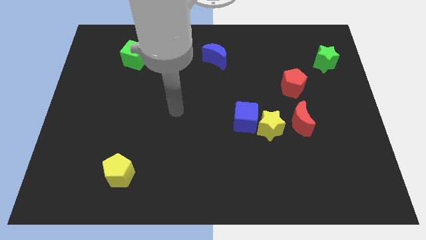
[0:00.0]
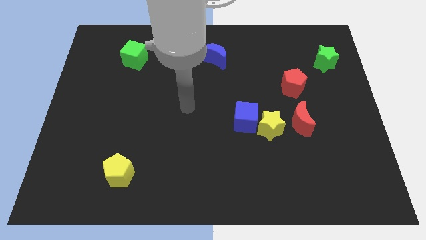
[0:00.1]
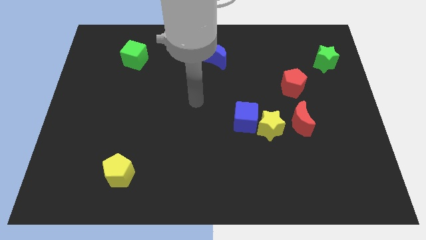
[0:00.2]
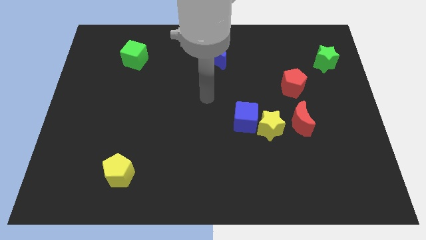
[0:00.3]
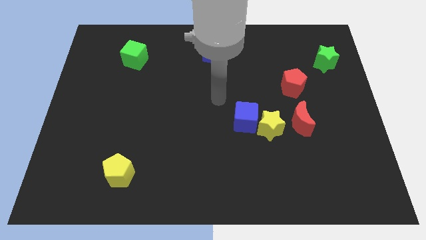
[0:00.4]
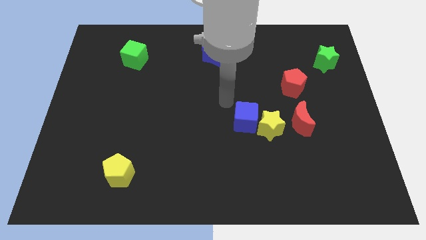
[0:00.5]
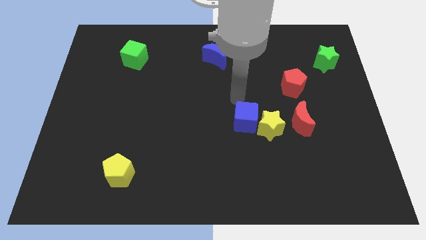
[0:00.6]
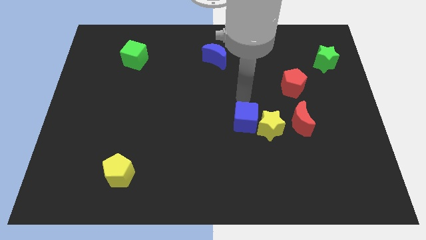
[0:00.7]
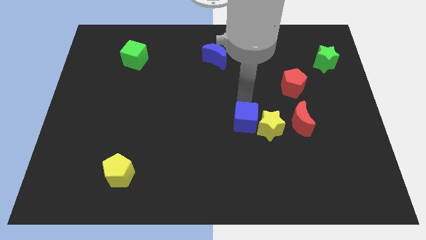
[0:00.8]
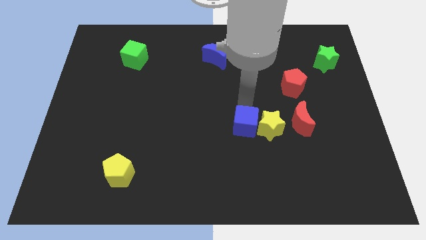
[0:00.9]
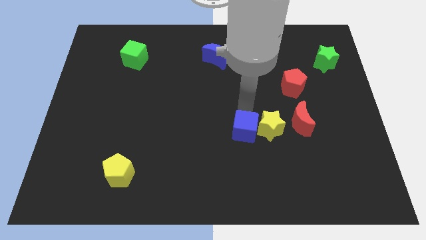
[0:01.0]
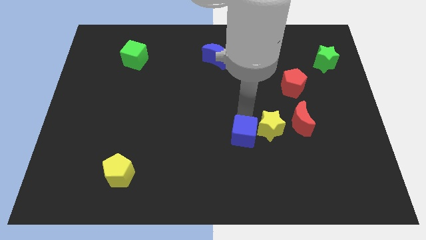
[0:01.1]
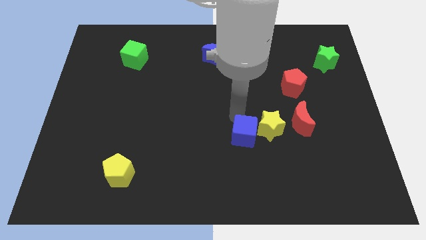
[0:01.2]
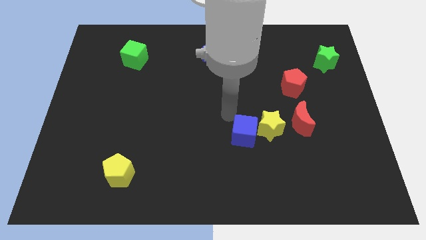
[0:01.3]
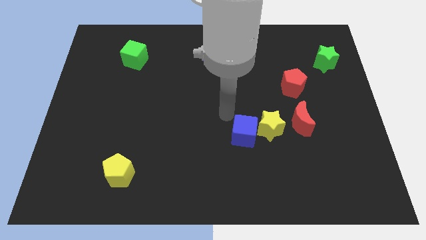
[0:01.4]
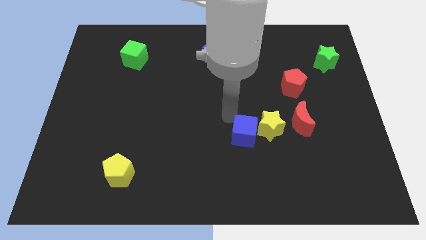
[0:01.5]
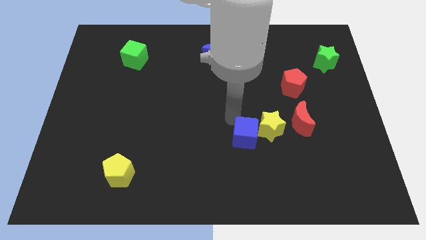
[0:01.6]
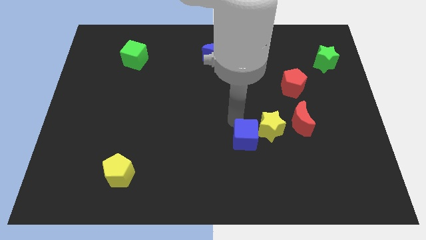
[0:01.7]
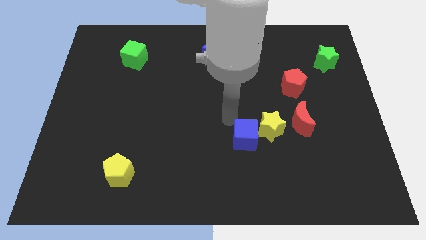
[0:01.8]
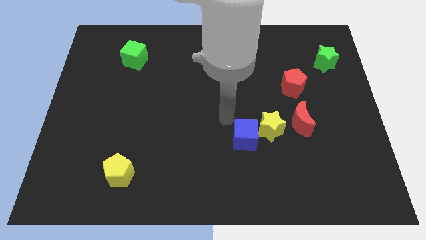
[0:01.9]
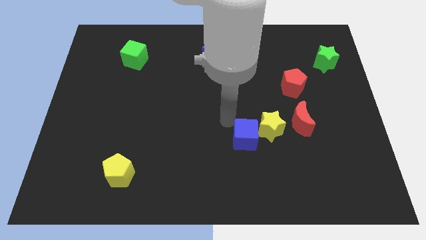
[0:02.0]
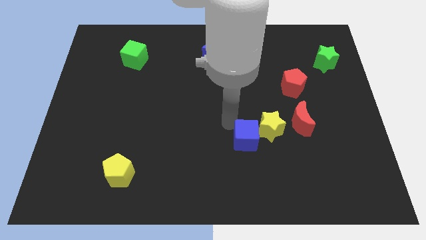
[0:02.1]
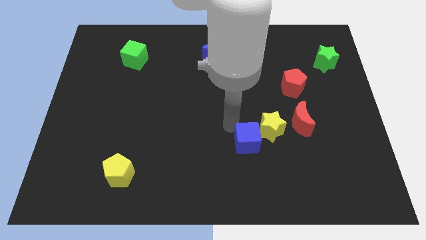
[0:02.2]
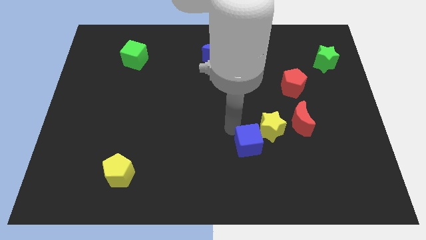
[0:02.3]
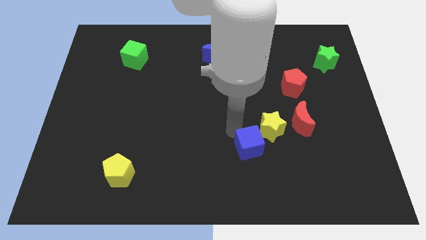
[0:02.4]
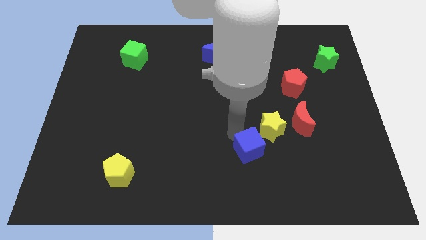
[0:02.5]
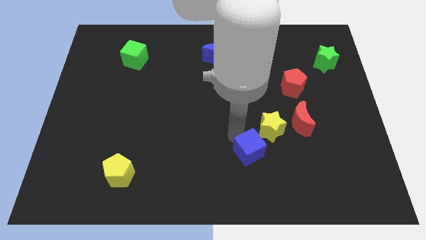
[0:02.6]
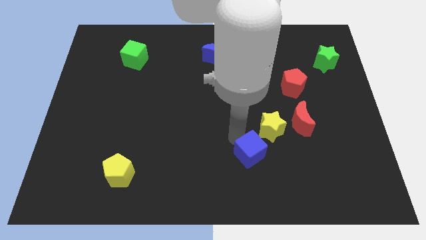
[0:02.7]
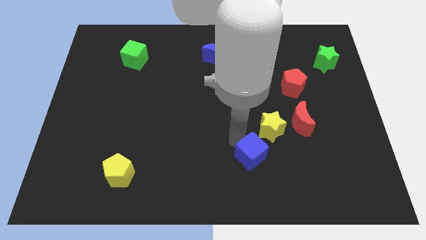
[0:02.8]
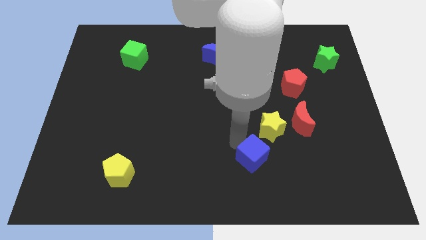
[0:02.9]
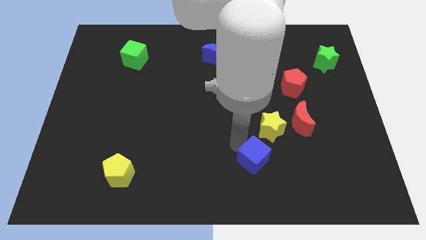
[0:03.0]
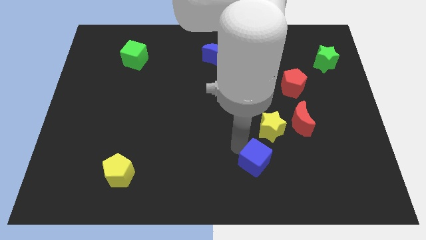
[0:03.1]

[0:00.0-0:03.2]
move the blue cube downwards and to the right diagonally slightly

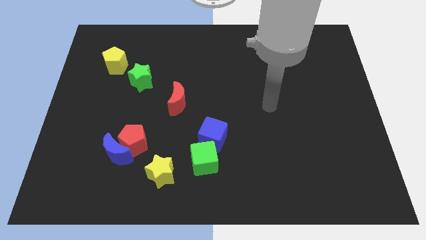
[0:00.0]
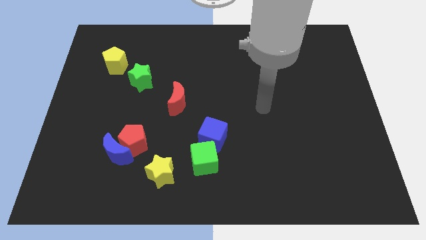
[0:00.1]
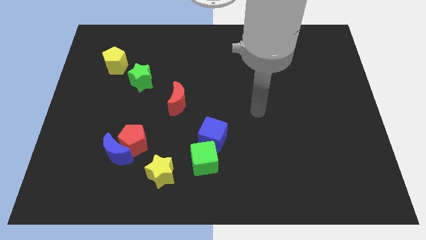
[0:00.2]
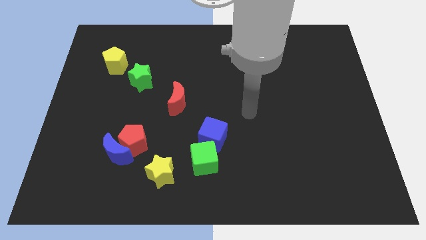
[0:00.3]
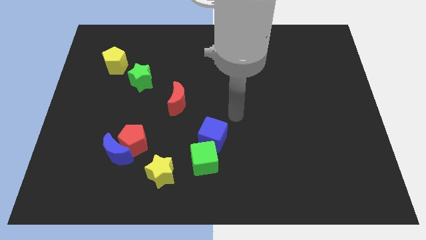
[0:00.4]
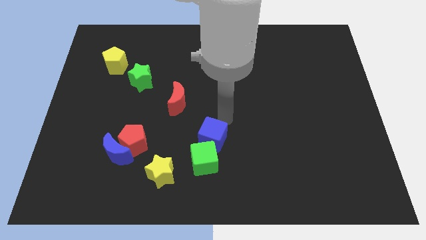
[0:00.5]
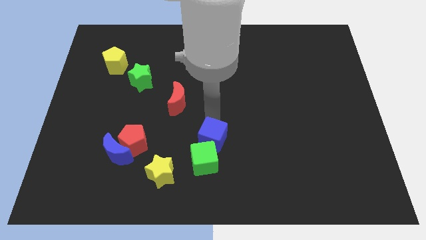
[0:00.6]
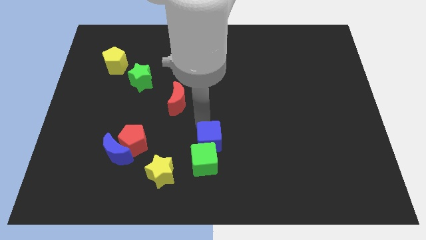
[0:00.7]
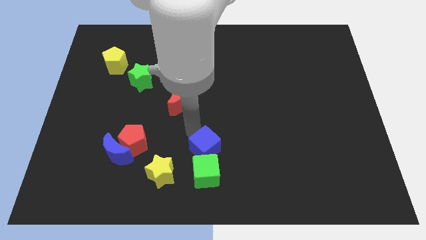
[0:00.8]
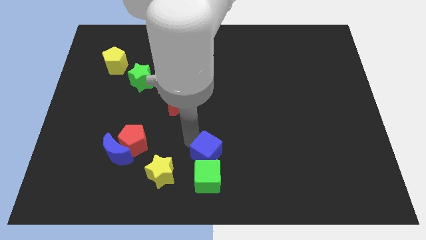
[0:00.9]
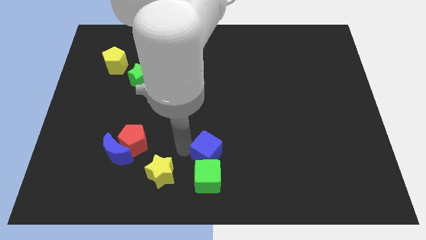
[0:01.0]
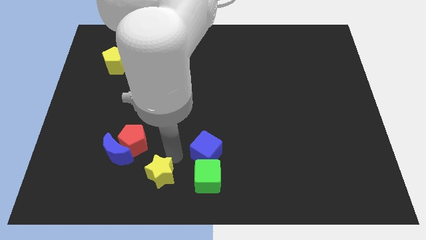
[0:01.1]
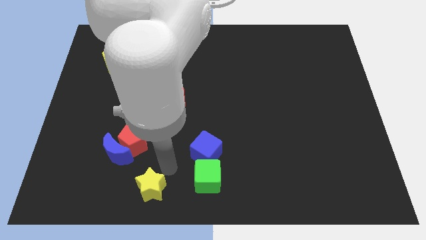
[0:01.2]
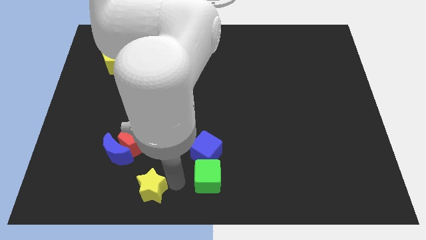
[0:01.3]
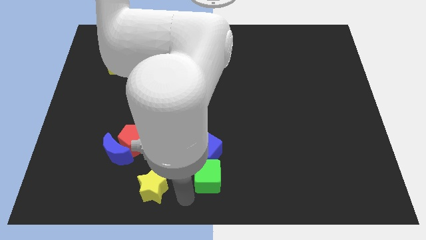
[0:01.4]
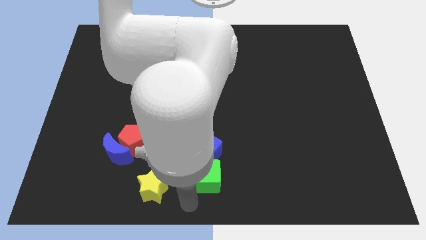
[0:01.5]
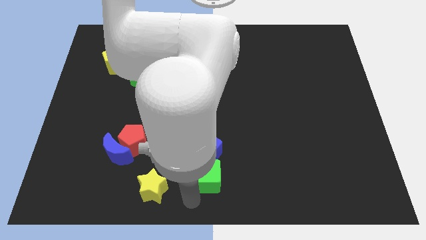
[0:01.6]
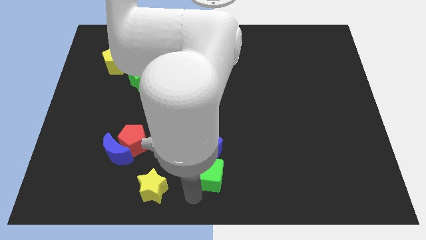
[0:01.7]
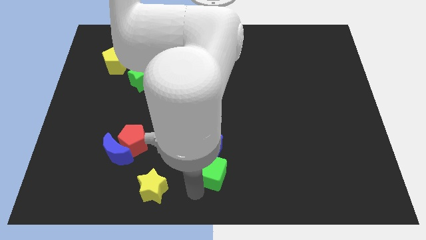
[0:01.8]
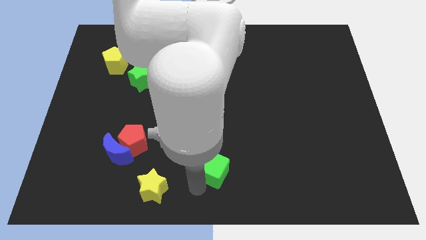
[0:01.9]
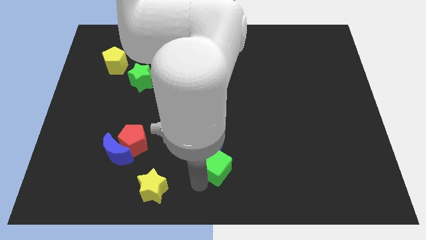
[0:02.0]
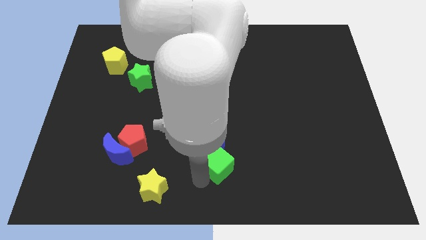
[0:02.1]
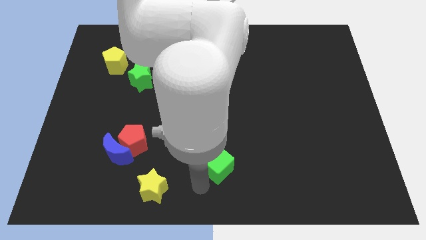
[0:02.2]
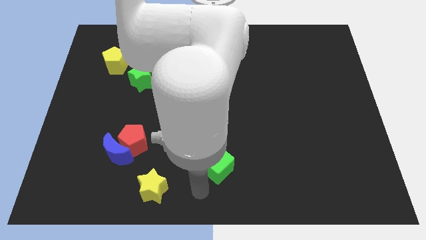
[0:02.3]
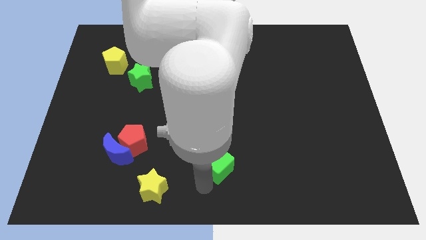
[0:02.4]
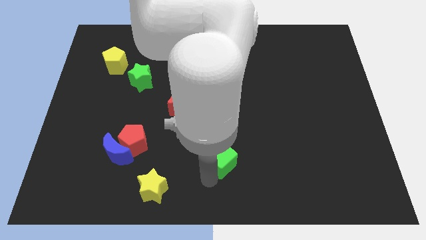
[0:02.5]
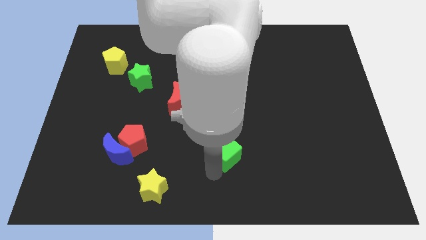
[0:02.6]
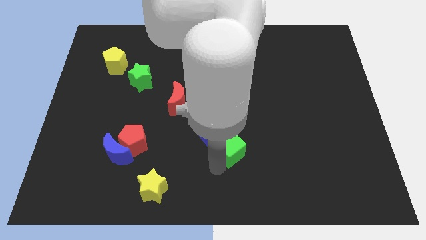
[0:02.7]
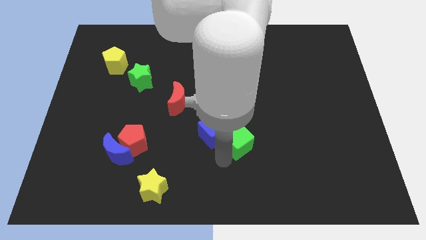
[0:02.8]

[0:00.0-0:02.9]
push the green cube a bit upwards and to the right

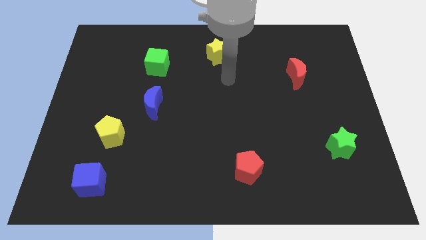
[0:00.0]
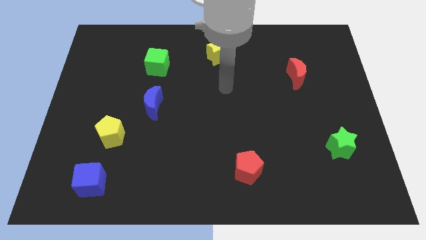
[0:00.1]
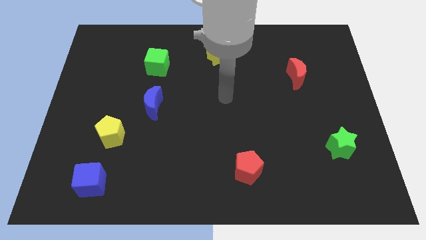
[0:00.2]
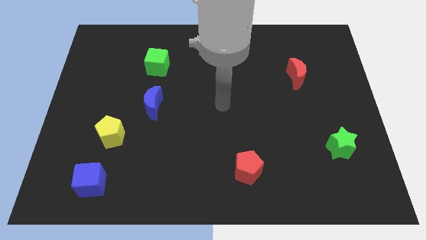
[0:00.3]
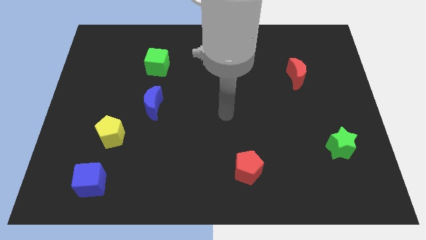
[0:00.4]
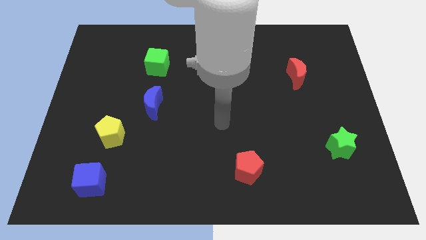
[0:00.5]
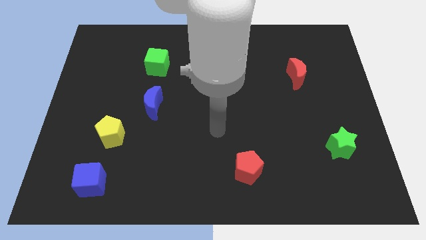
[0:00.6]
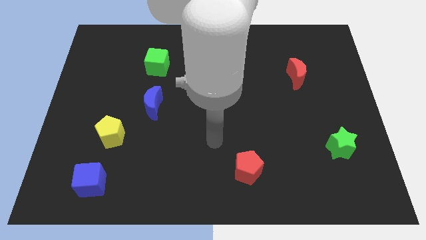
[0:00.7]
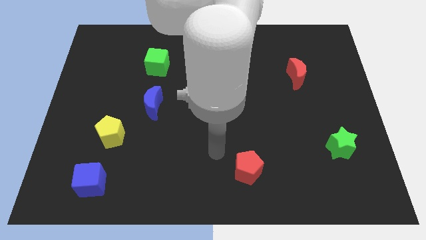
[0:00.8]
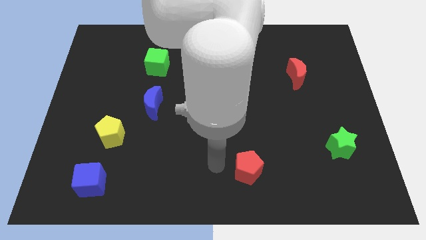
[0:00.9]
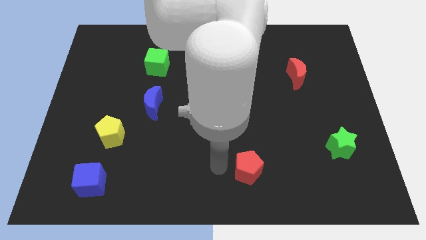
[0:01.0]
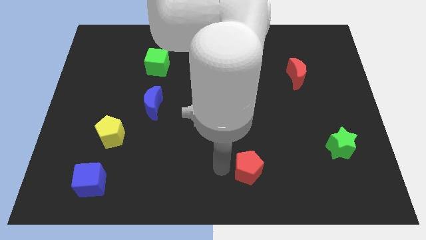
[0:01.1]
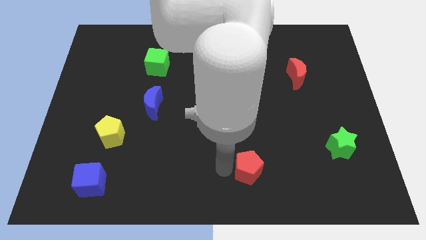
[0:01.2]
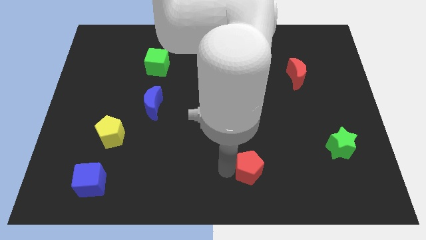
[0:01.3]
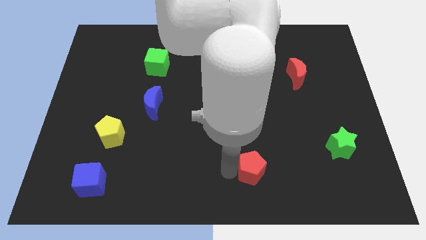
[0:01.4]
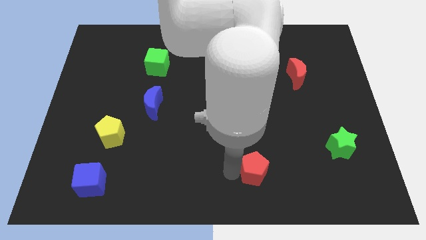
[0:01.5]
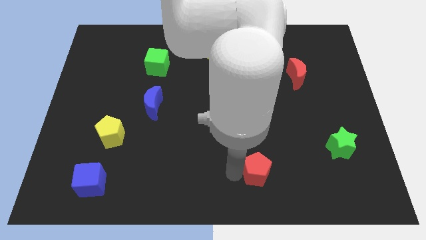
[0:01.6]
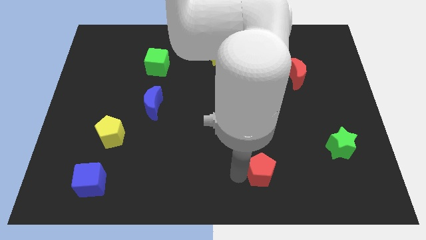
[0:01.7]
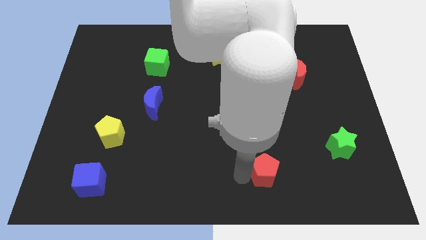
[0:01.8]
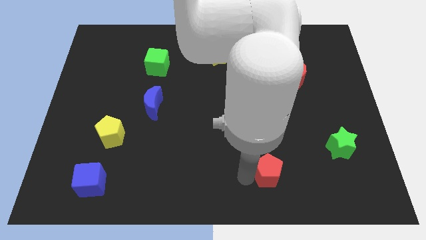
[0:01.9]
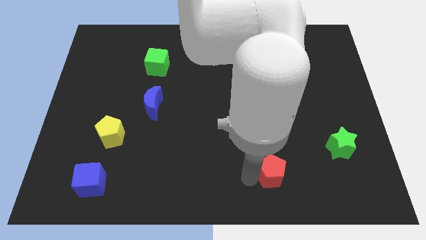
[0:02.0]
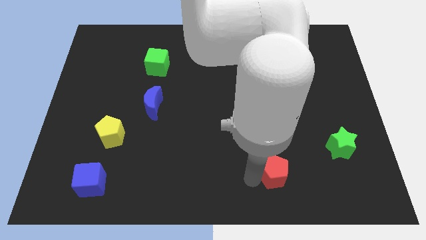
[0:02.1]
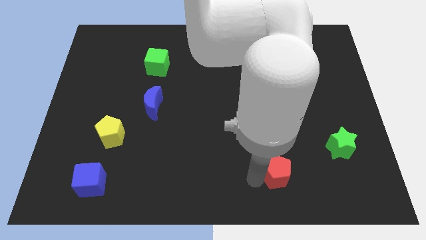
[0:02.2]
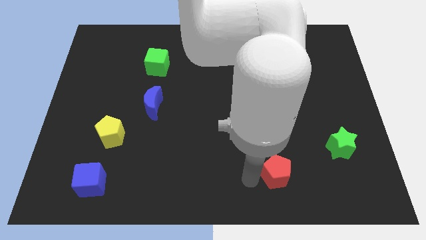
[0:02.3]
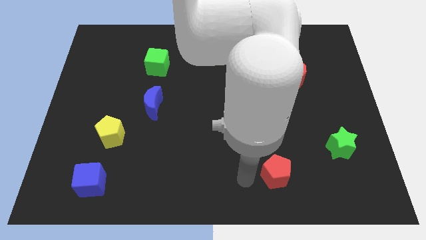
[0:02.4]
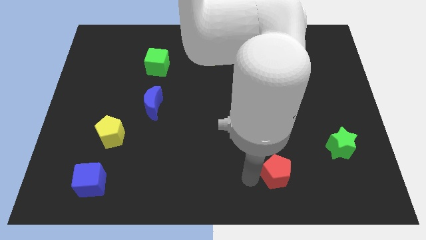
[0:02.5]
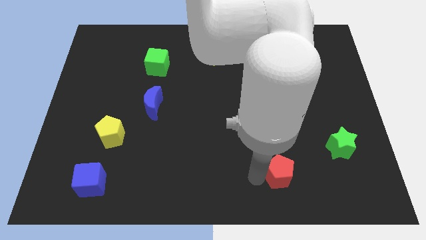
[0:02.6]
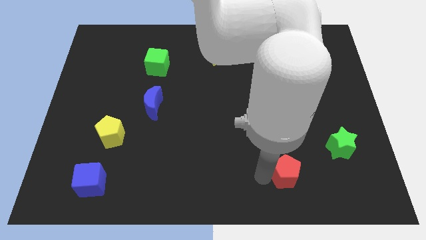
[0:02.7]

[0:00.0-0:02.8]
slightly move the red pentagon to the right
